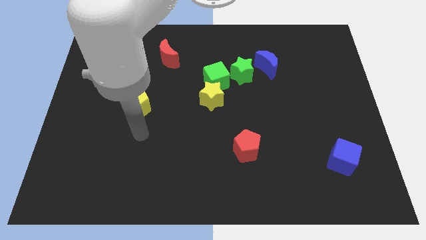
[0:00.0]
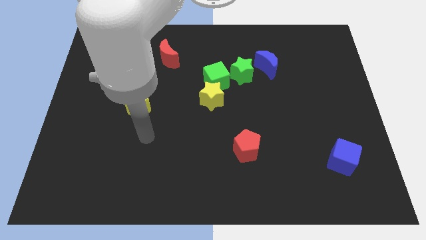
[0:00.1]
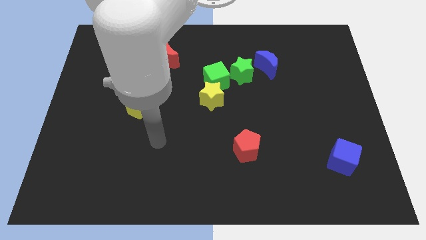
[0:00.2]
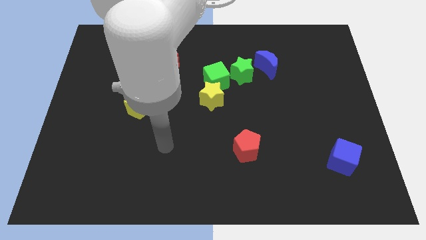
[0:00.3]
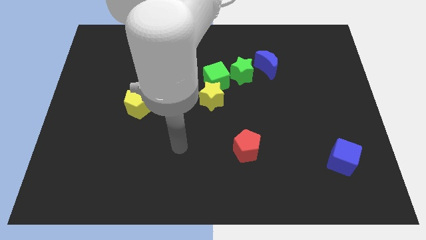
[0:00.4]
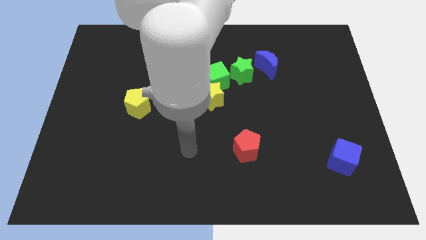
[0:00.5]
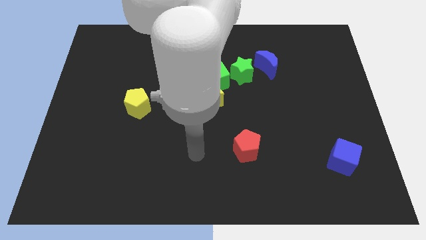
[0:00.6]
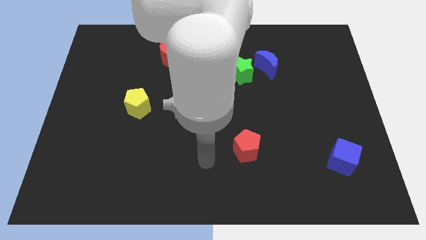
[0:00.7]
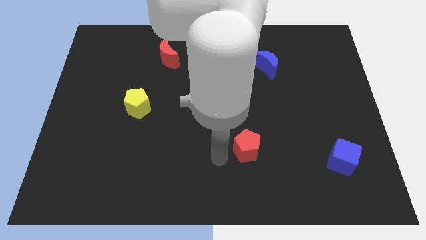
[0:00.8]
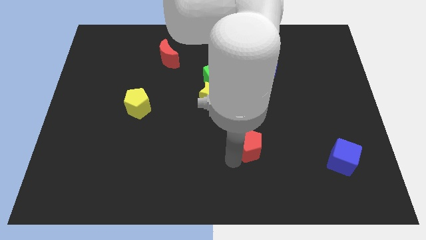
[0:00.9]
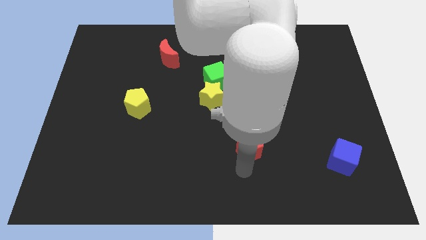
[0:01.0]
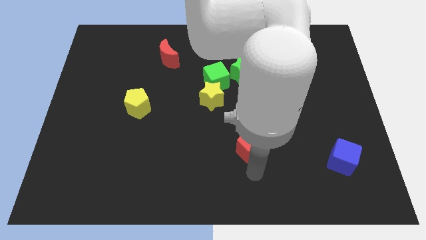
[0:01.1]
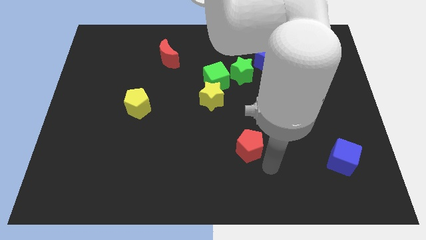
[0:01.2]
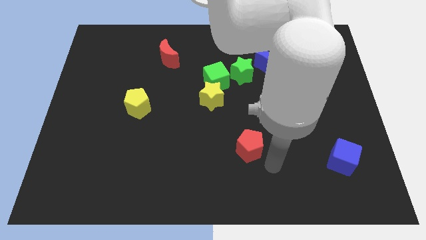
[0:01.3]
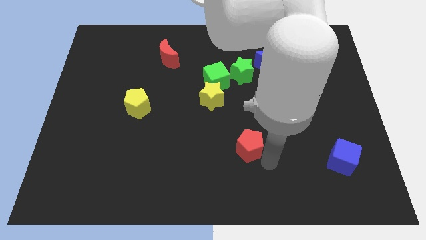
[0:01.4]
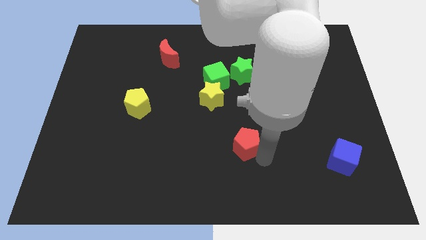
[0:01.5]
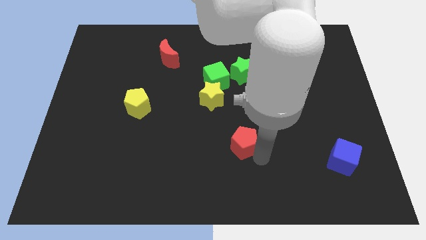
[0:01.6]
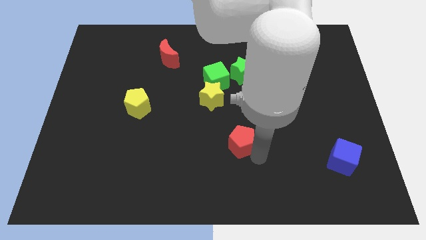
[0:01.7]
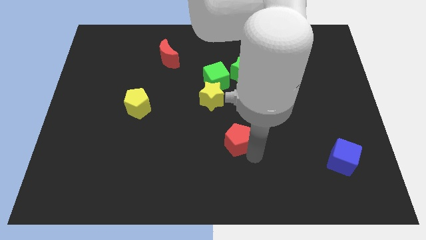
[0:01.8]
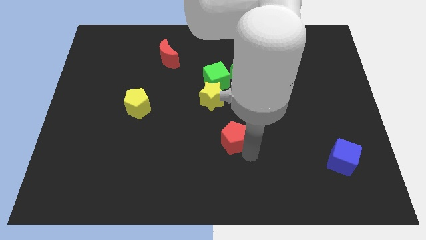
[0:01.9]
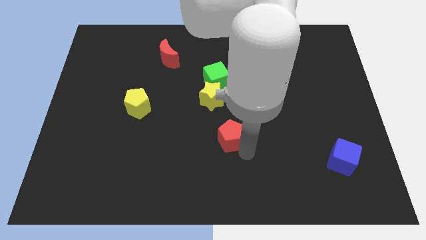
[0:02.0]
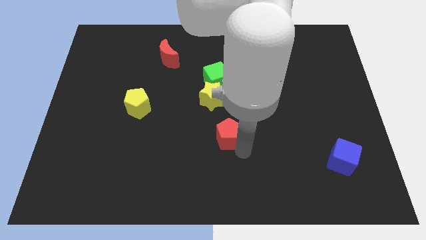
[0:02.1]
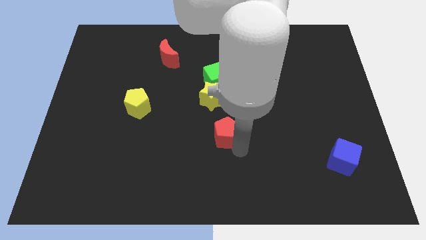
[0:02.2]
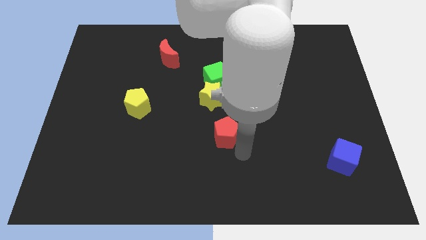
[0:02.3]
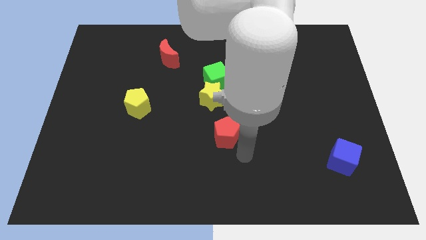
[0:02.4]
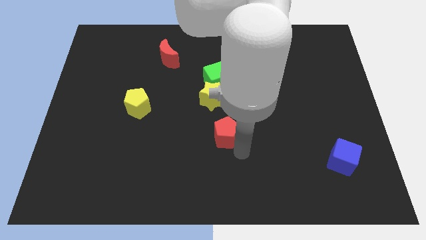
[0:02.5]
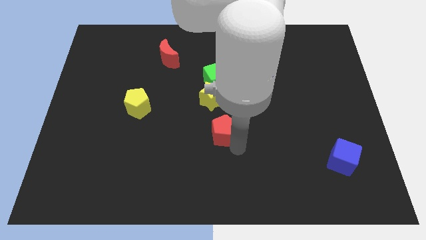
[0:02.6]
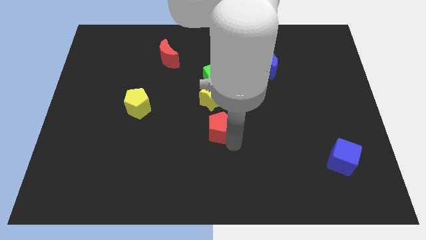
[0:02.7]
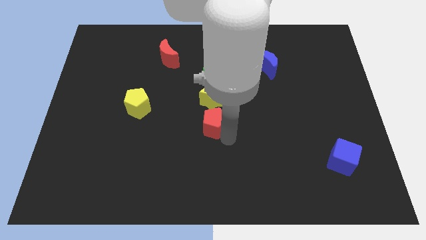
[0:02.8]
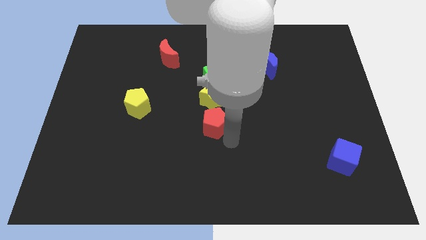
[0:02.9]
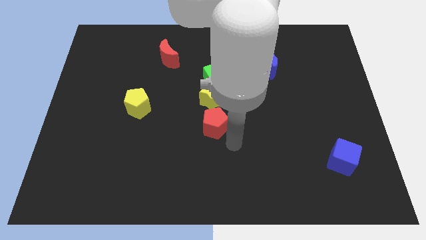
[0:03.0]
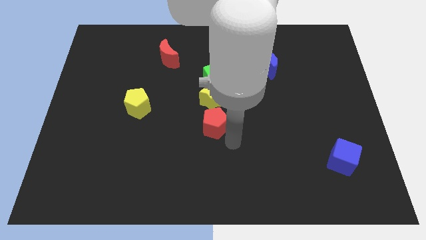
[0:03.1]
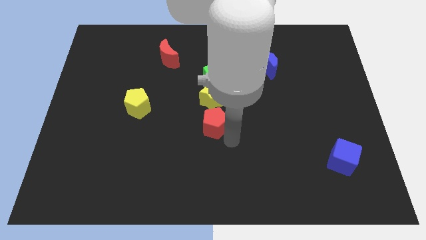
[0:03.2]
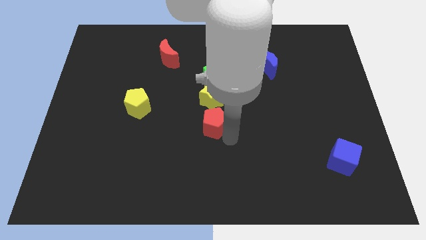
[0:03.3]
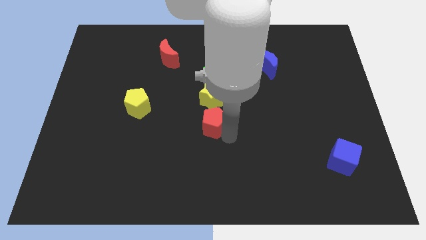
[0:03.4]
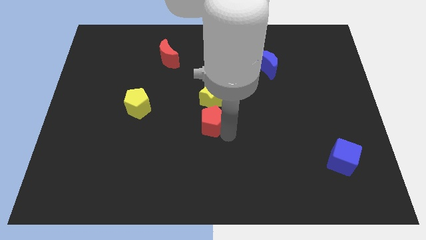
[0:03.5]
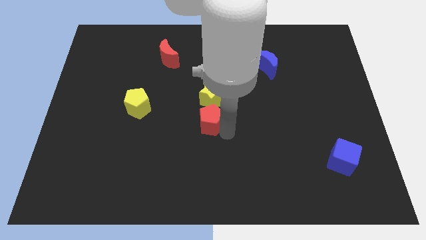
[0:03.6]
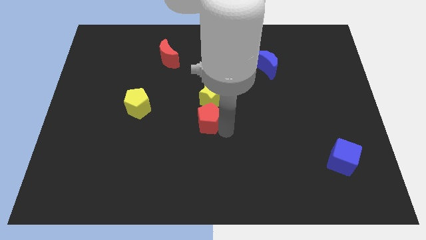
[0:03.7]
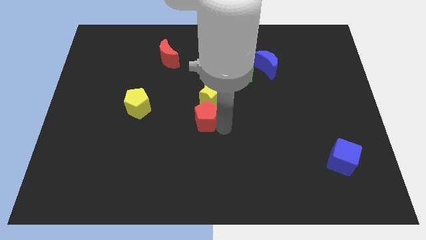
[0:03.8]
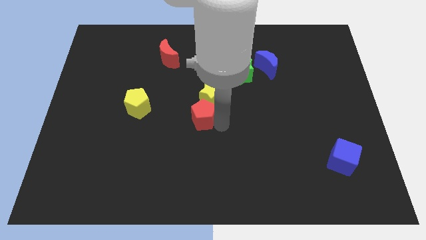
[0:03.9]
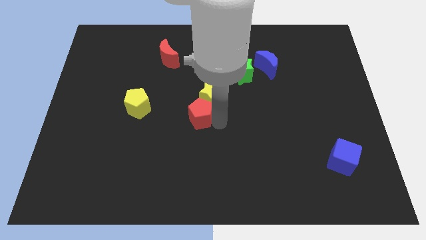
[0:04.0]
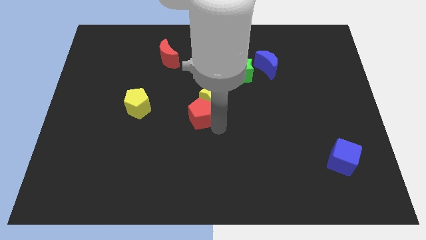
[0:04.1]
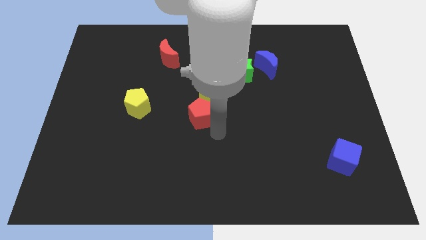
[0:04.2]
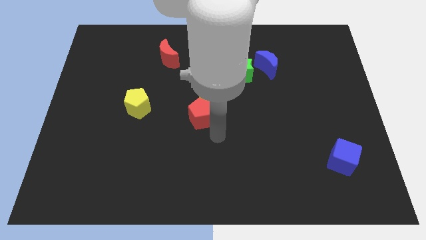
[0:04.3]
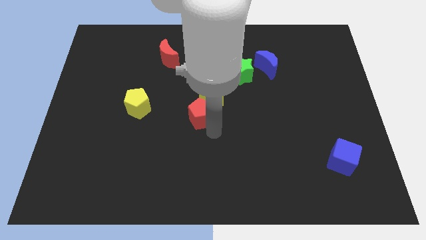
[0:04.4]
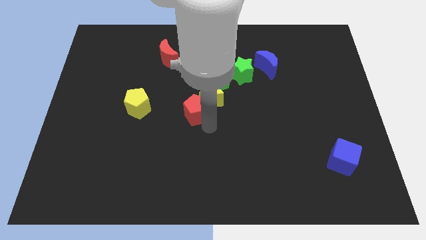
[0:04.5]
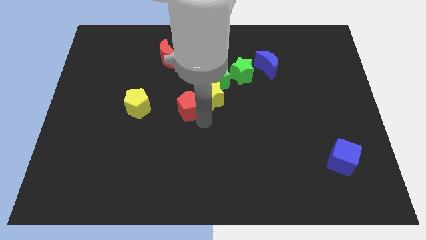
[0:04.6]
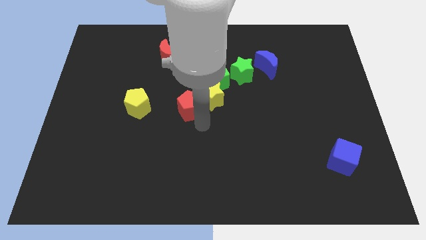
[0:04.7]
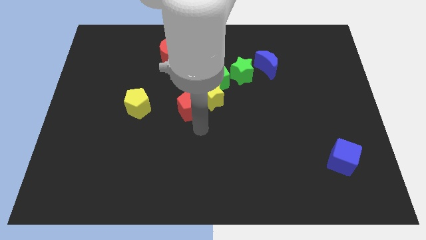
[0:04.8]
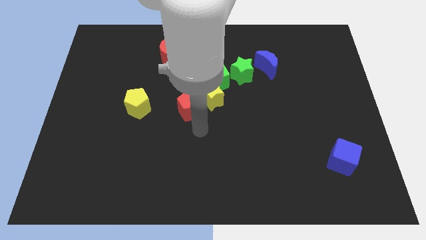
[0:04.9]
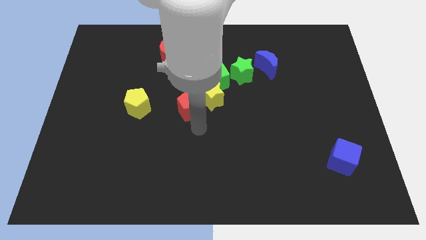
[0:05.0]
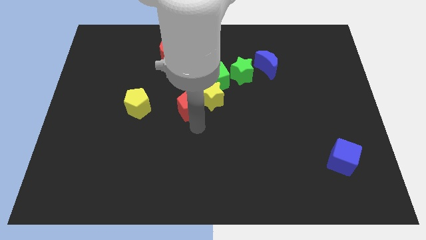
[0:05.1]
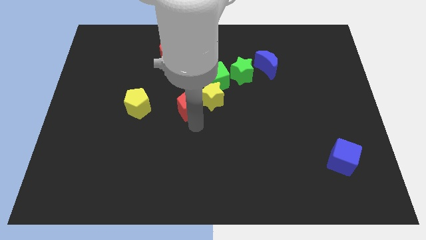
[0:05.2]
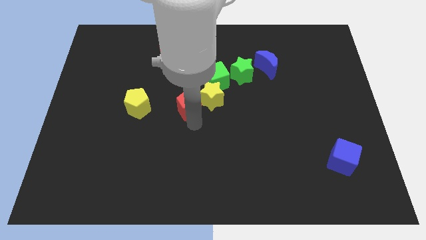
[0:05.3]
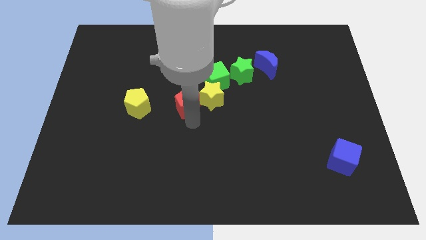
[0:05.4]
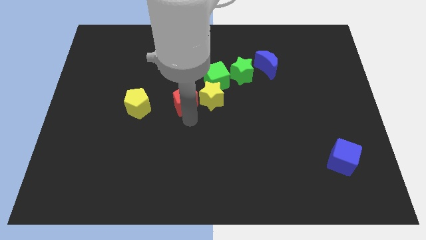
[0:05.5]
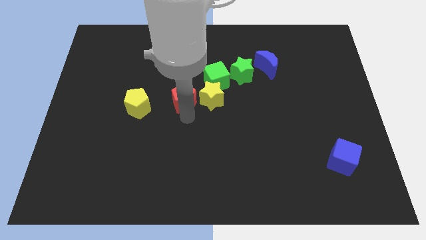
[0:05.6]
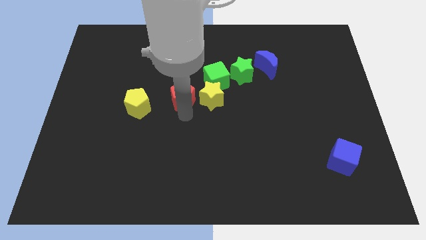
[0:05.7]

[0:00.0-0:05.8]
slide the red pentagon upwards and to the left diagonally

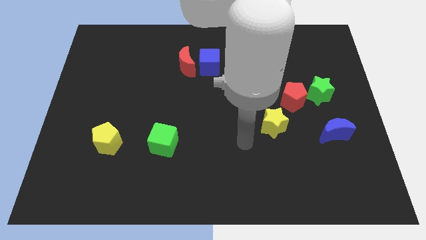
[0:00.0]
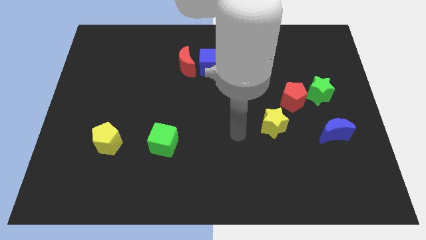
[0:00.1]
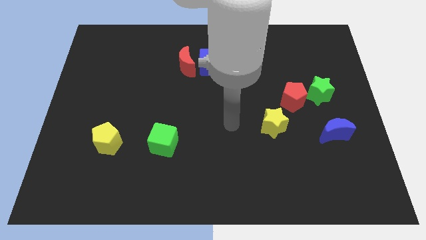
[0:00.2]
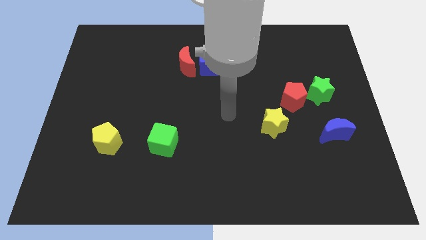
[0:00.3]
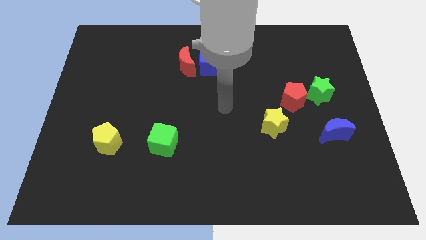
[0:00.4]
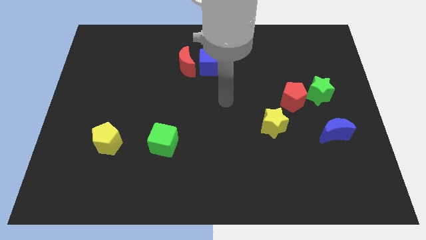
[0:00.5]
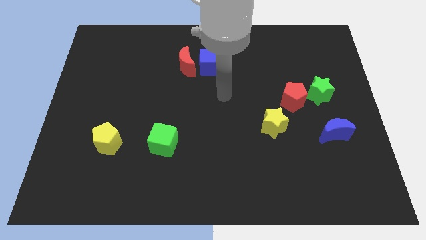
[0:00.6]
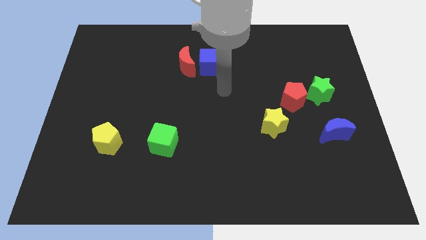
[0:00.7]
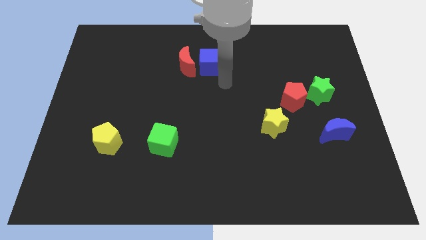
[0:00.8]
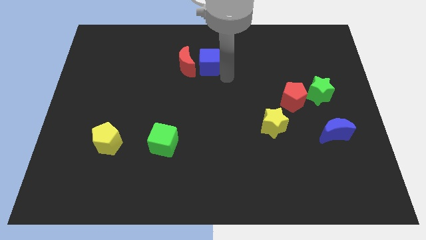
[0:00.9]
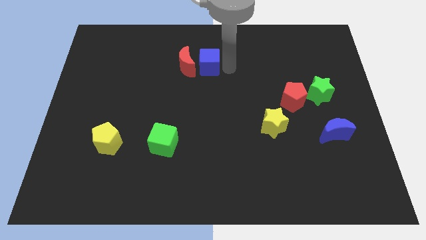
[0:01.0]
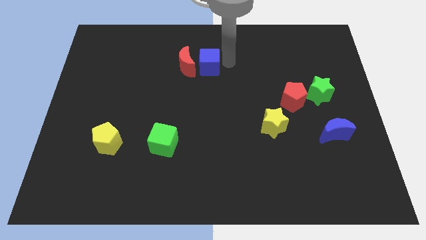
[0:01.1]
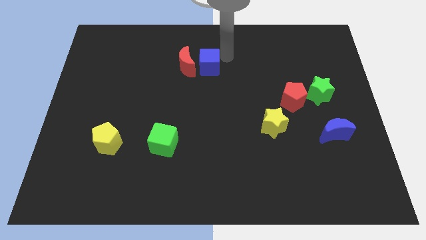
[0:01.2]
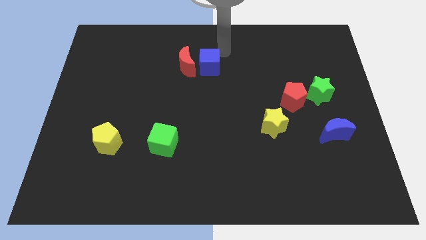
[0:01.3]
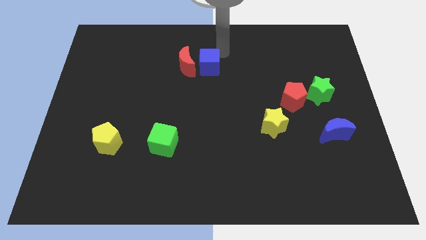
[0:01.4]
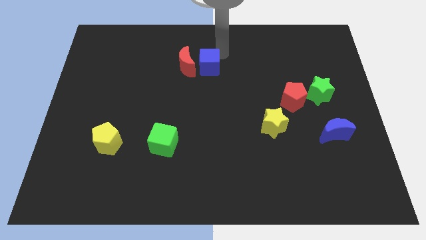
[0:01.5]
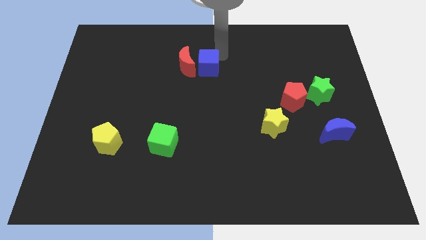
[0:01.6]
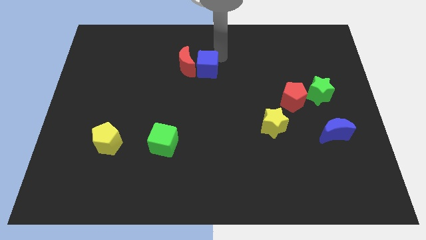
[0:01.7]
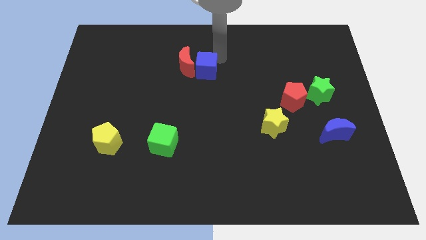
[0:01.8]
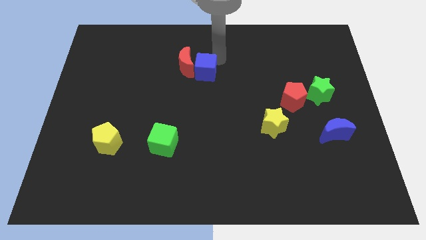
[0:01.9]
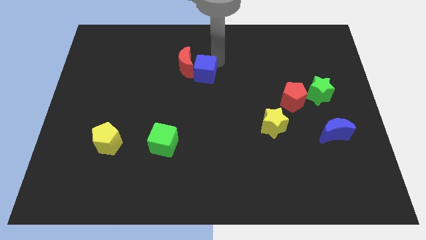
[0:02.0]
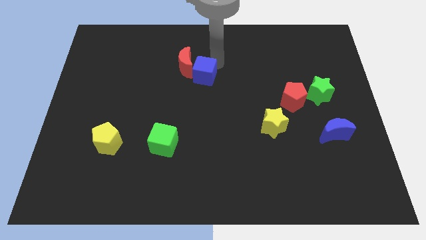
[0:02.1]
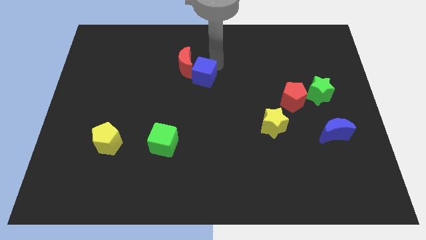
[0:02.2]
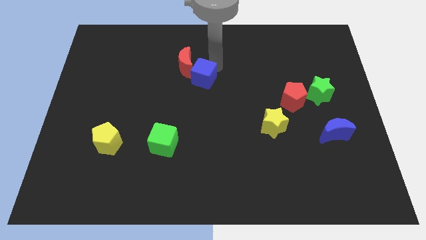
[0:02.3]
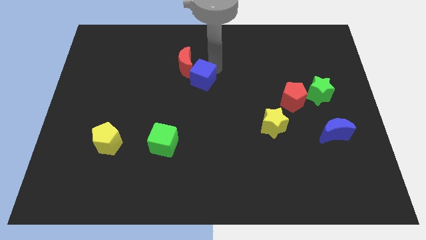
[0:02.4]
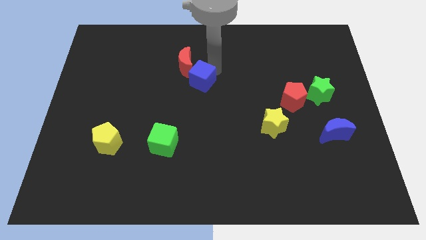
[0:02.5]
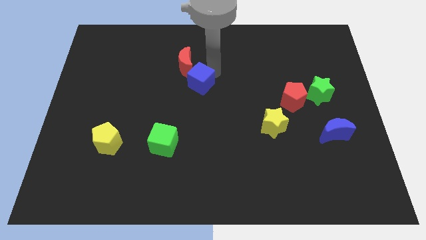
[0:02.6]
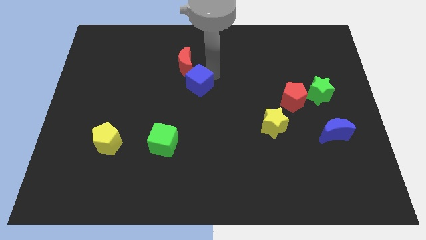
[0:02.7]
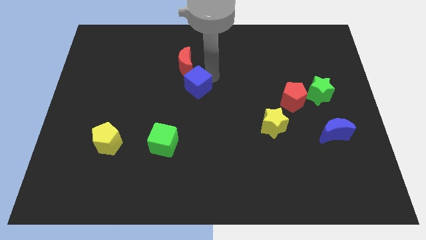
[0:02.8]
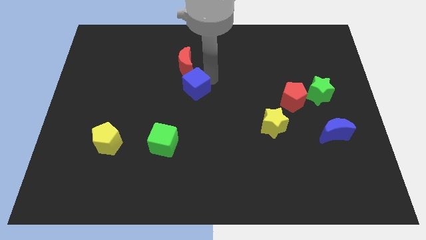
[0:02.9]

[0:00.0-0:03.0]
slightly push the blue cube down and left
